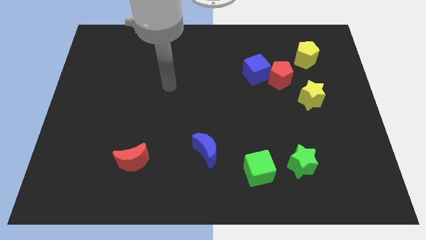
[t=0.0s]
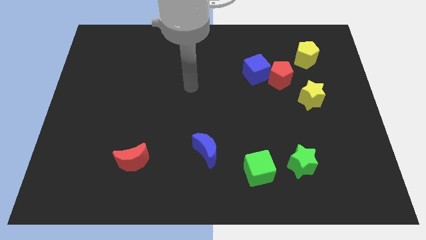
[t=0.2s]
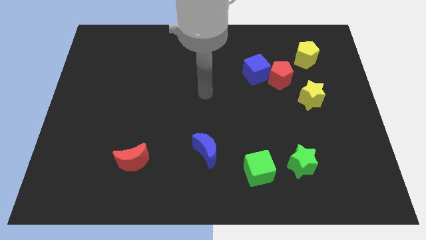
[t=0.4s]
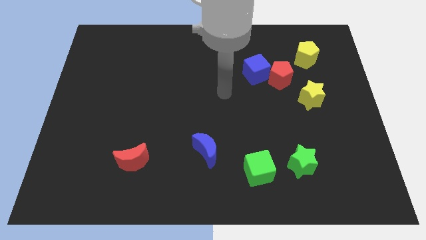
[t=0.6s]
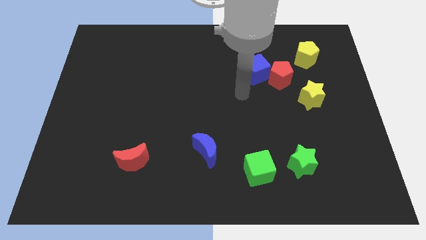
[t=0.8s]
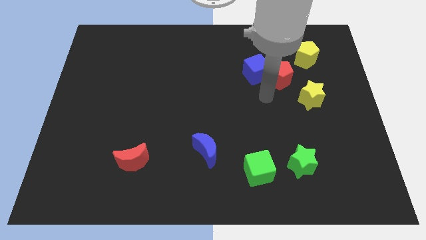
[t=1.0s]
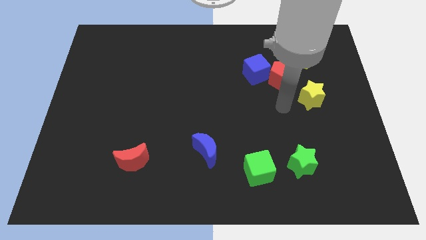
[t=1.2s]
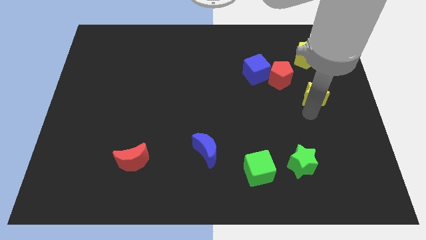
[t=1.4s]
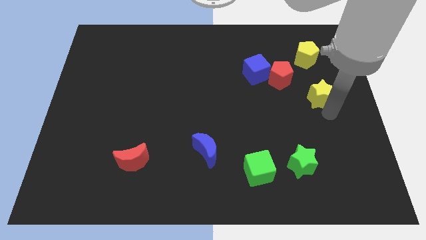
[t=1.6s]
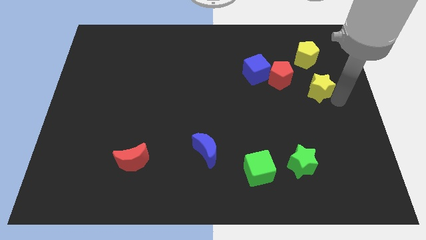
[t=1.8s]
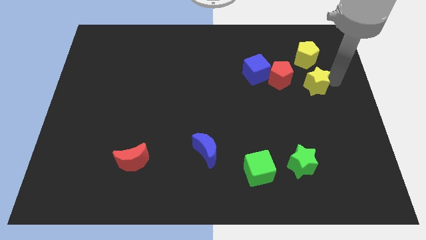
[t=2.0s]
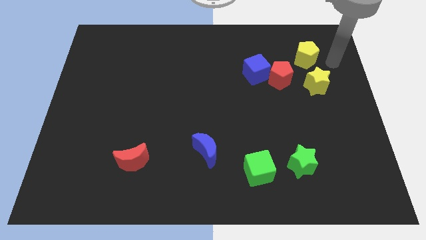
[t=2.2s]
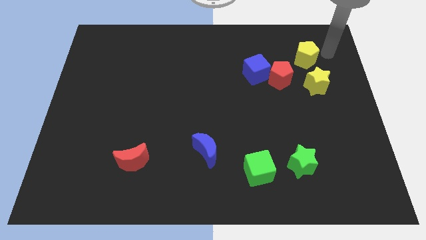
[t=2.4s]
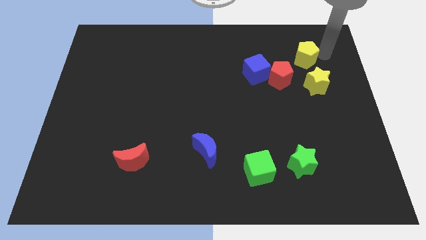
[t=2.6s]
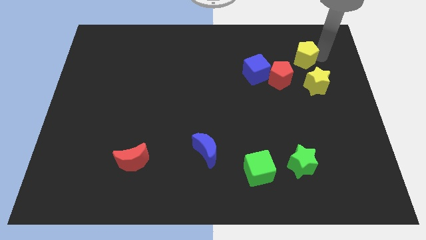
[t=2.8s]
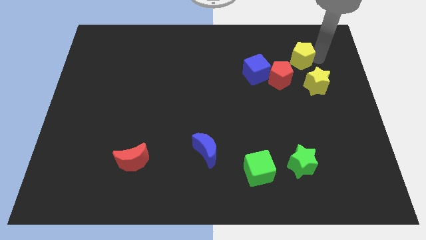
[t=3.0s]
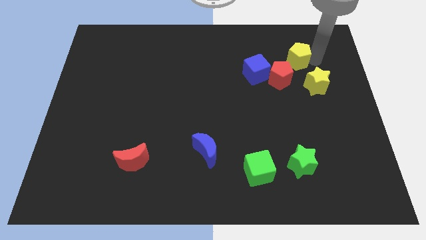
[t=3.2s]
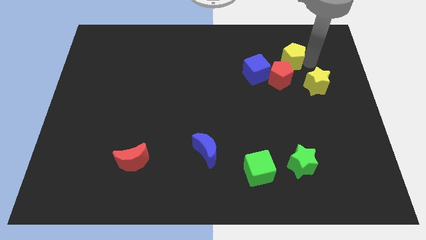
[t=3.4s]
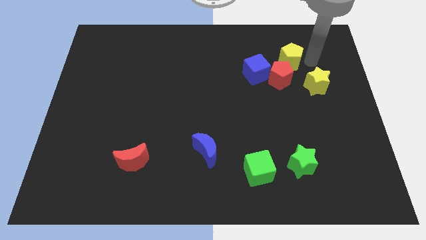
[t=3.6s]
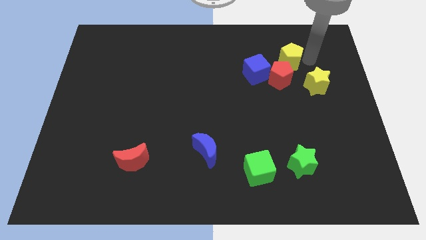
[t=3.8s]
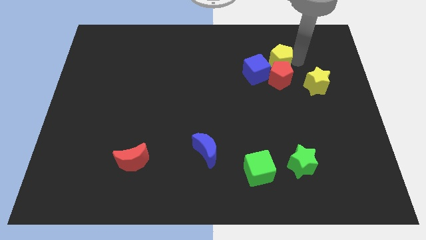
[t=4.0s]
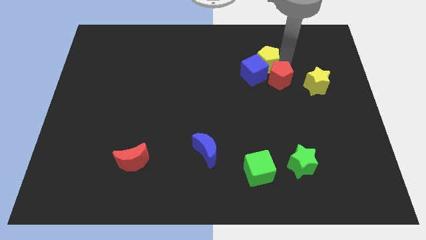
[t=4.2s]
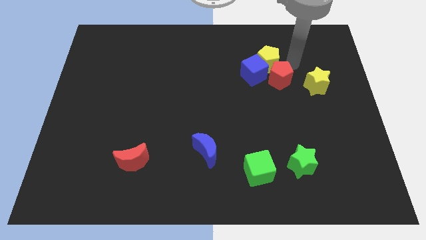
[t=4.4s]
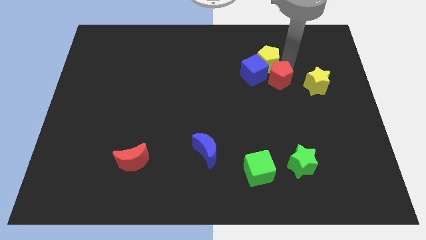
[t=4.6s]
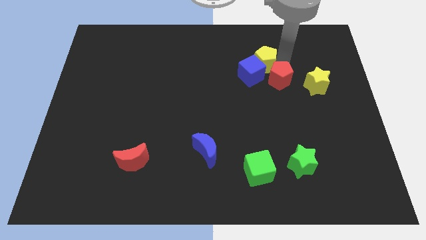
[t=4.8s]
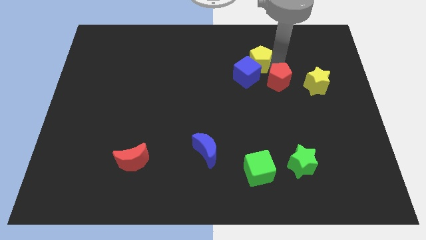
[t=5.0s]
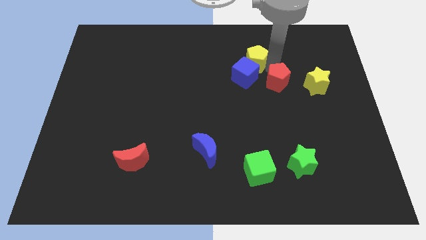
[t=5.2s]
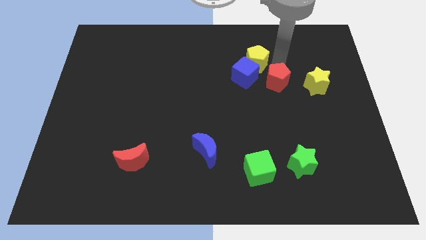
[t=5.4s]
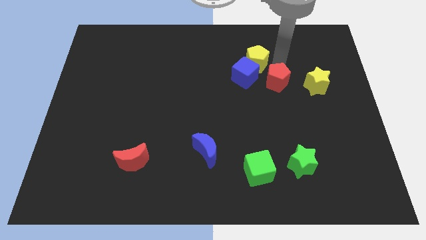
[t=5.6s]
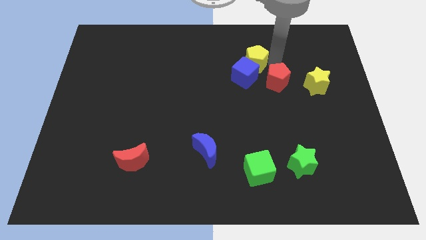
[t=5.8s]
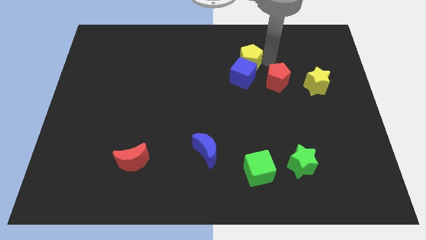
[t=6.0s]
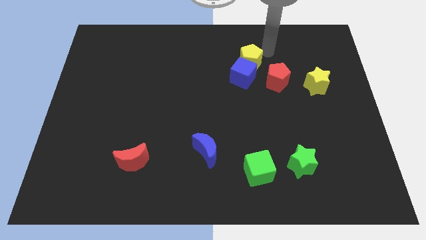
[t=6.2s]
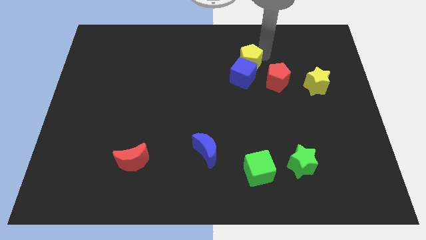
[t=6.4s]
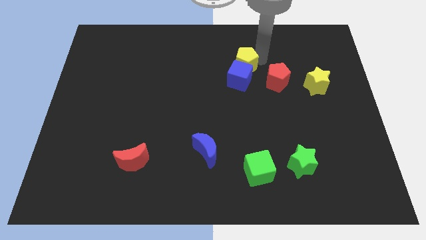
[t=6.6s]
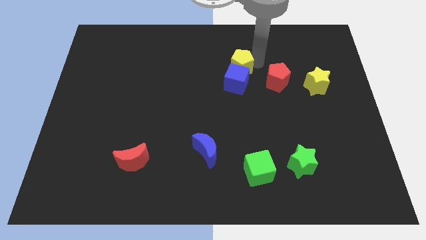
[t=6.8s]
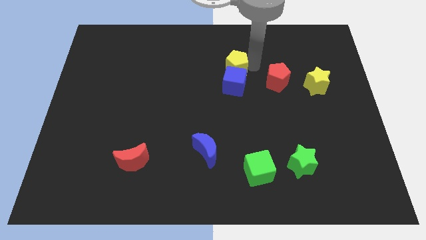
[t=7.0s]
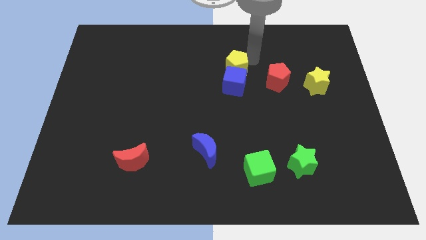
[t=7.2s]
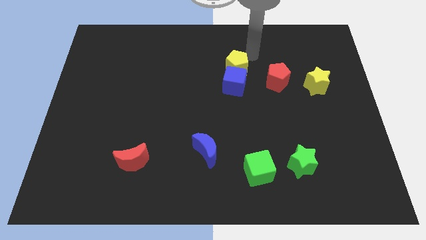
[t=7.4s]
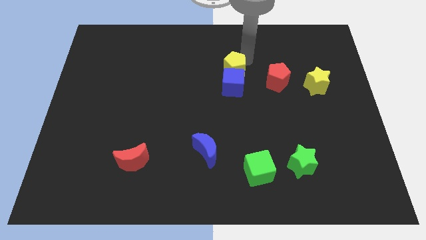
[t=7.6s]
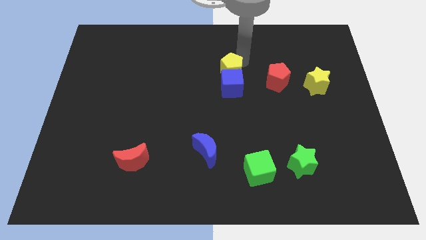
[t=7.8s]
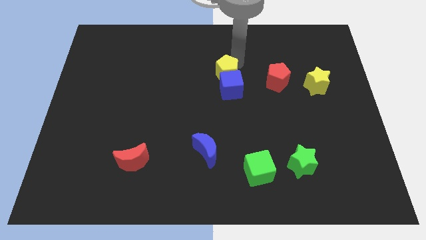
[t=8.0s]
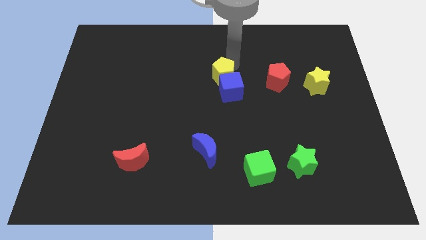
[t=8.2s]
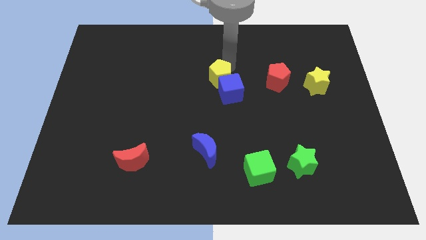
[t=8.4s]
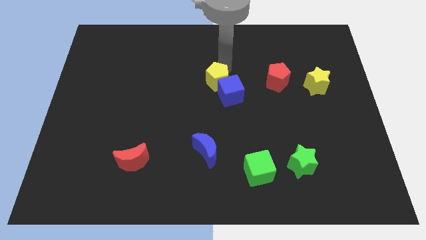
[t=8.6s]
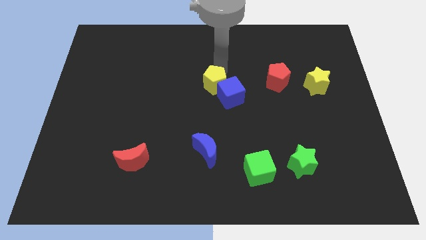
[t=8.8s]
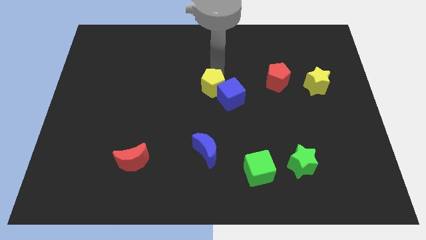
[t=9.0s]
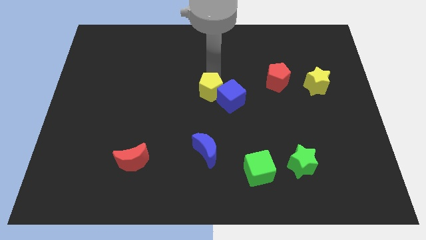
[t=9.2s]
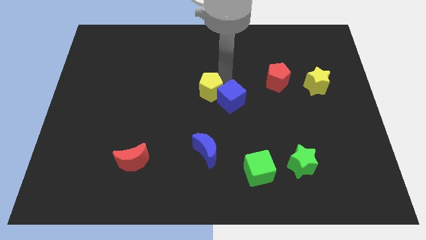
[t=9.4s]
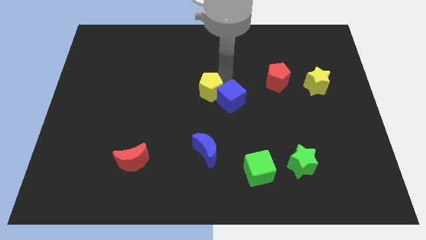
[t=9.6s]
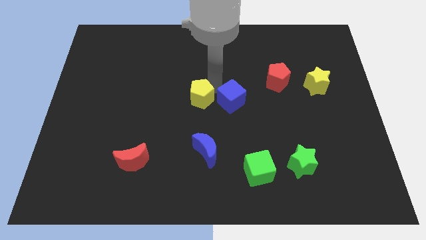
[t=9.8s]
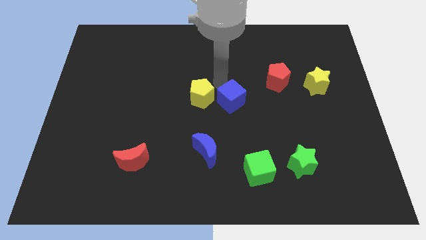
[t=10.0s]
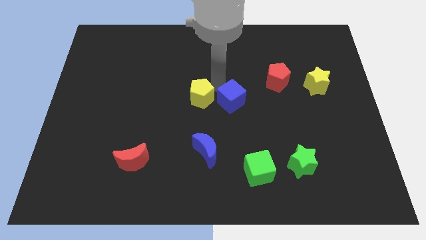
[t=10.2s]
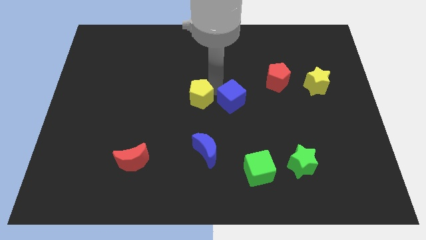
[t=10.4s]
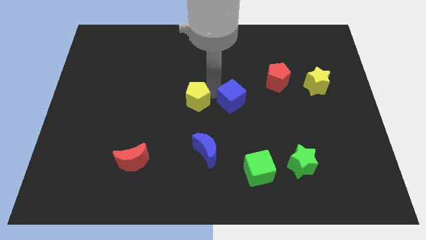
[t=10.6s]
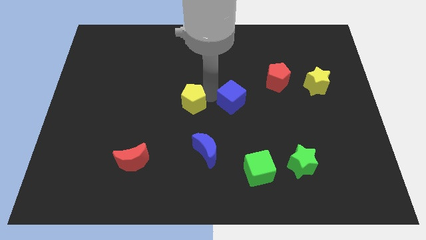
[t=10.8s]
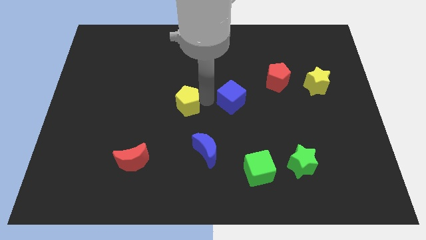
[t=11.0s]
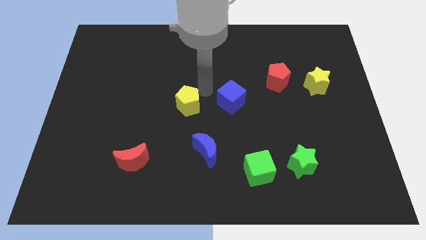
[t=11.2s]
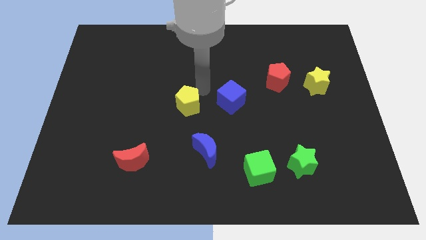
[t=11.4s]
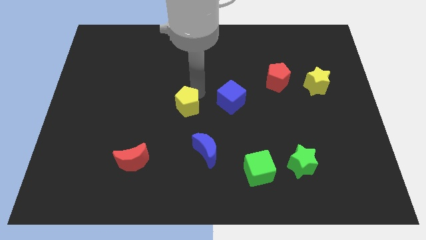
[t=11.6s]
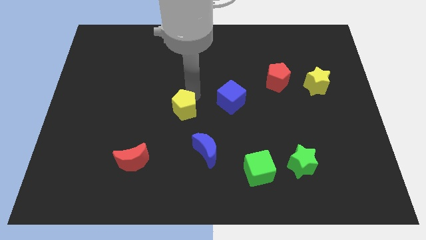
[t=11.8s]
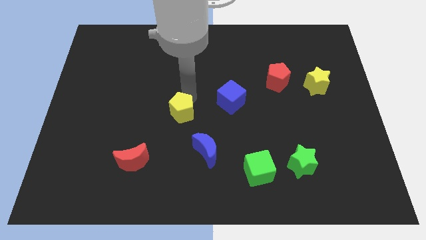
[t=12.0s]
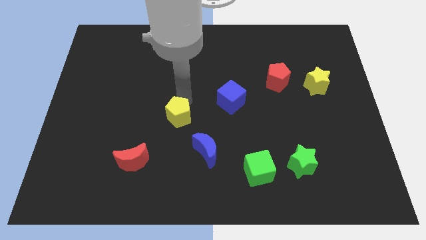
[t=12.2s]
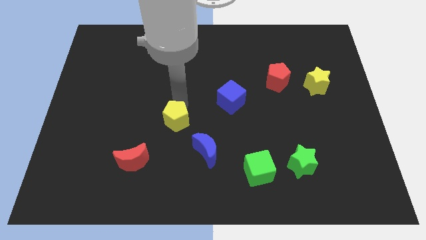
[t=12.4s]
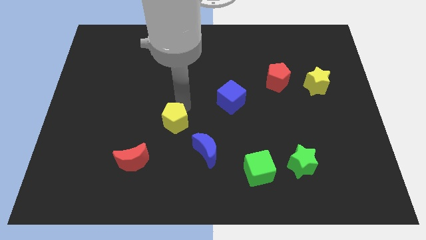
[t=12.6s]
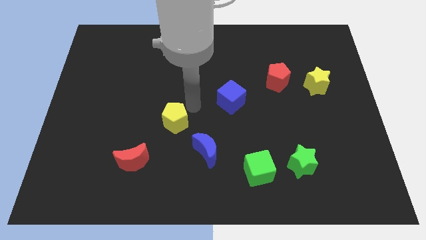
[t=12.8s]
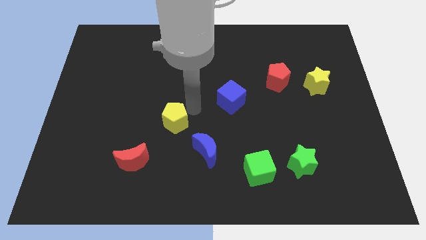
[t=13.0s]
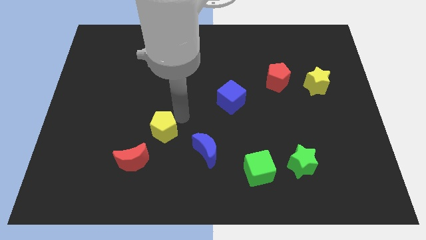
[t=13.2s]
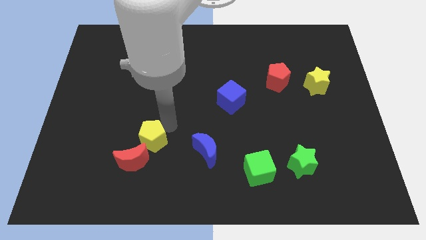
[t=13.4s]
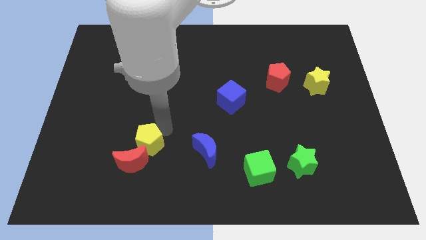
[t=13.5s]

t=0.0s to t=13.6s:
move the yellow pentagon next to the red moon
